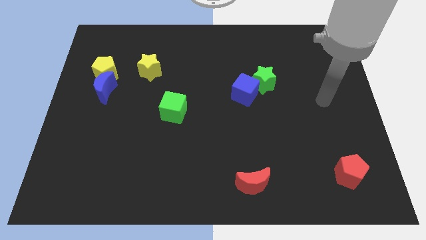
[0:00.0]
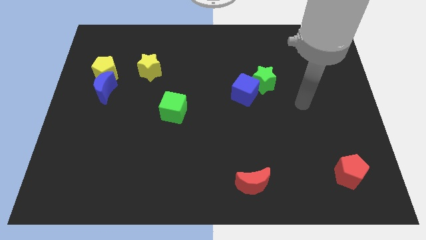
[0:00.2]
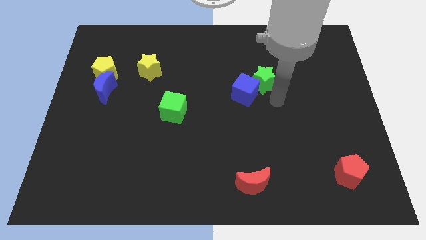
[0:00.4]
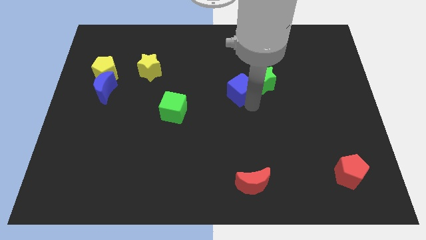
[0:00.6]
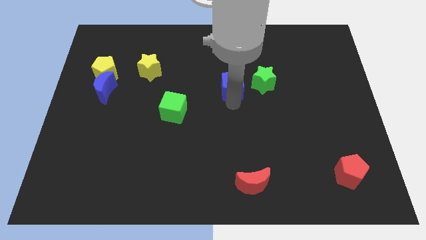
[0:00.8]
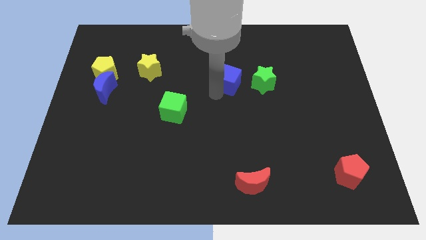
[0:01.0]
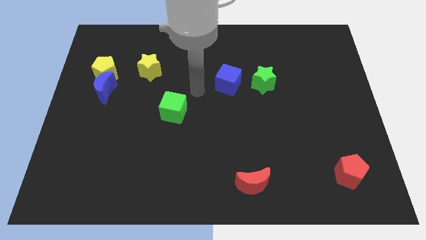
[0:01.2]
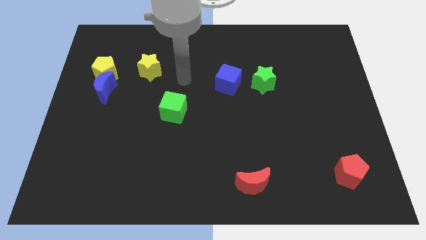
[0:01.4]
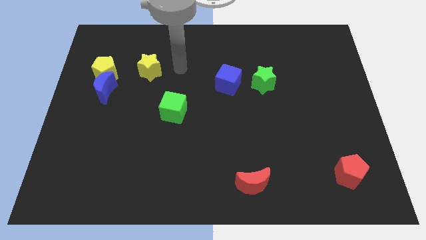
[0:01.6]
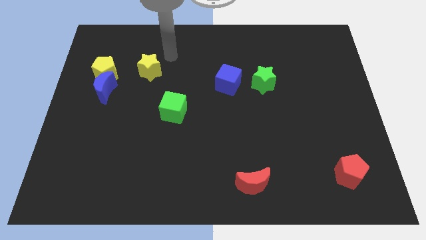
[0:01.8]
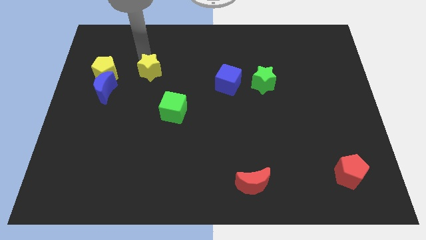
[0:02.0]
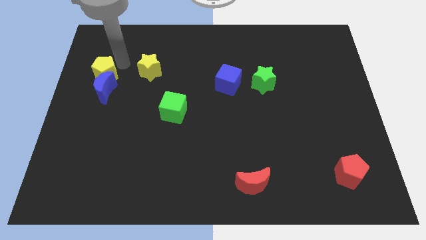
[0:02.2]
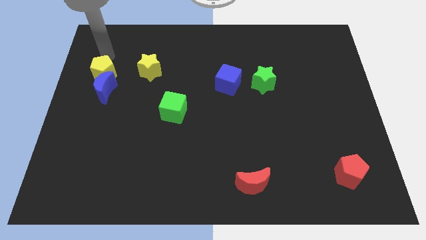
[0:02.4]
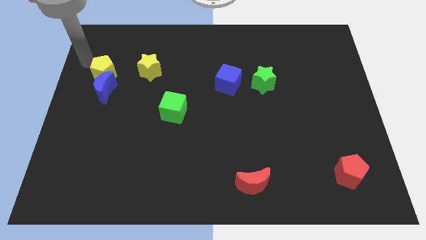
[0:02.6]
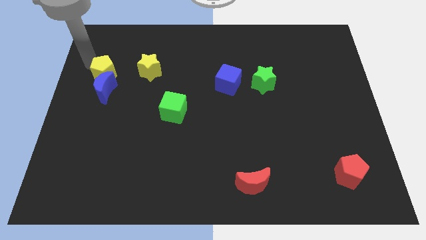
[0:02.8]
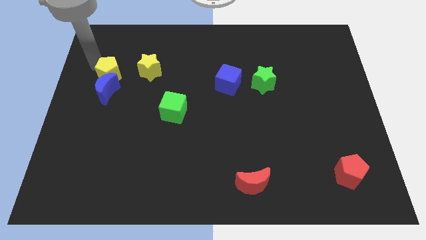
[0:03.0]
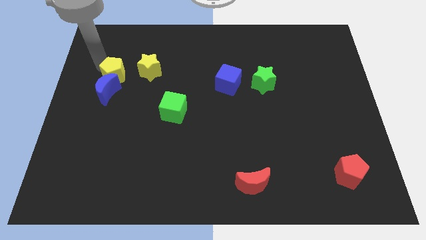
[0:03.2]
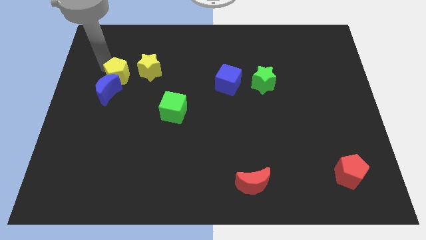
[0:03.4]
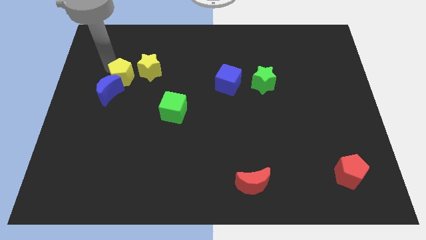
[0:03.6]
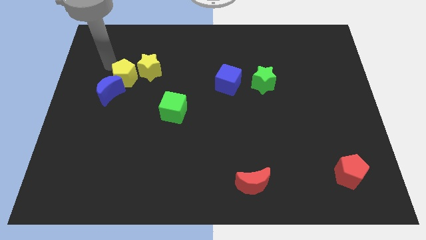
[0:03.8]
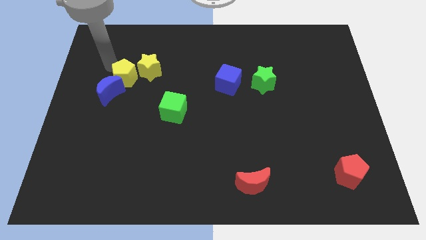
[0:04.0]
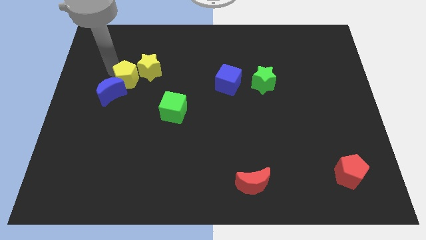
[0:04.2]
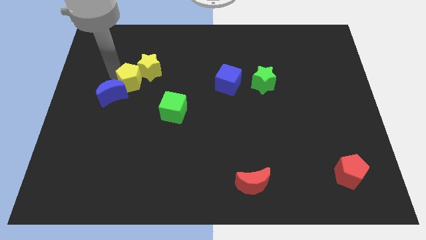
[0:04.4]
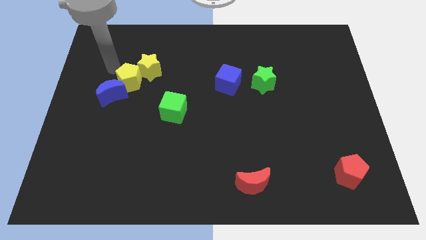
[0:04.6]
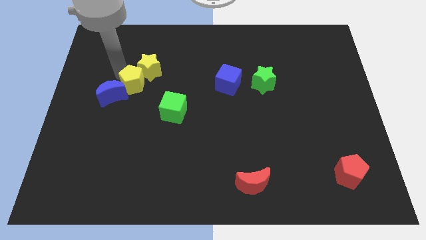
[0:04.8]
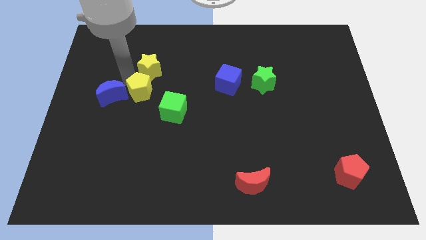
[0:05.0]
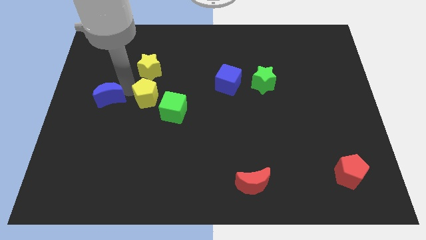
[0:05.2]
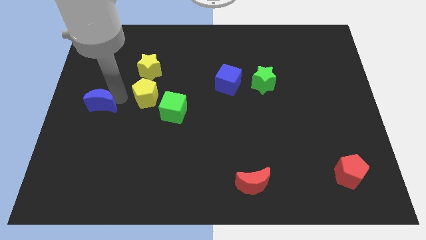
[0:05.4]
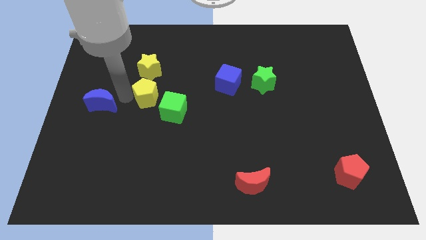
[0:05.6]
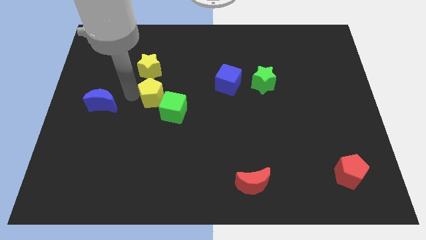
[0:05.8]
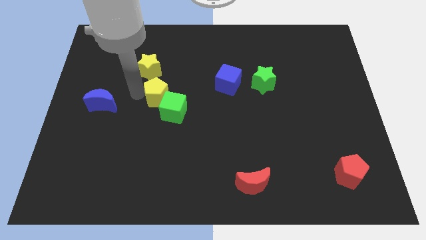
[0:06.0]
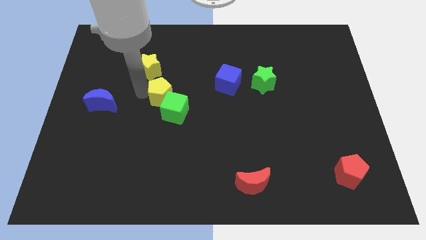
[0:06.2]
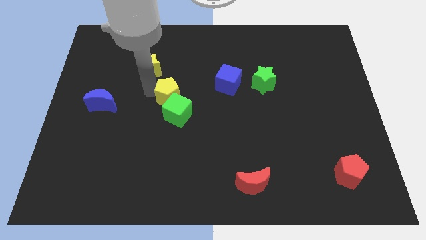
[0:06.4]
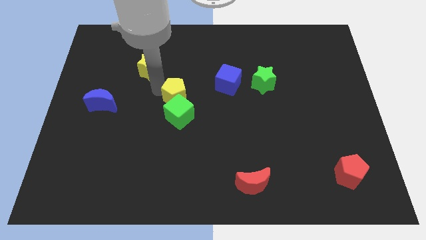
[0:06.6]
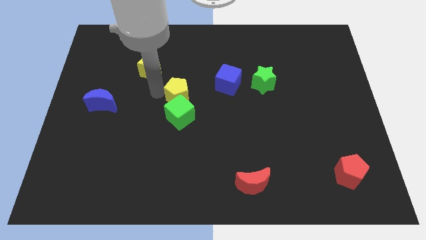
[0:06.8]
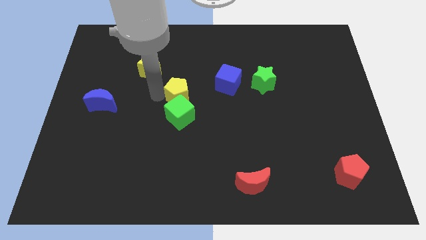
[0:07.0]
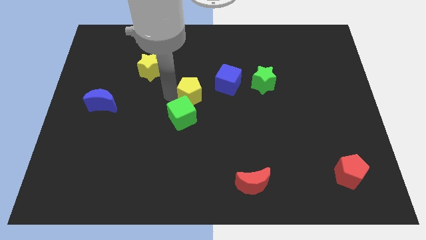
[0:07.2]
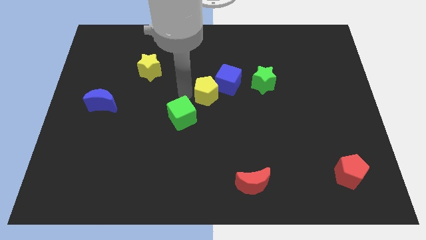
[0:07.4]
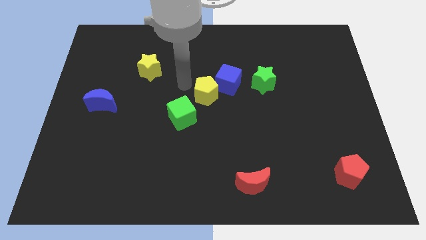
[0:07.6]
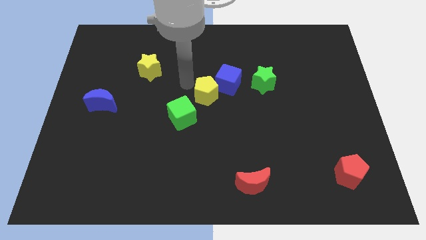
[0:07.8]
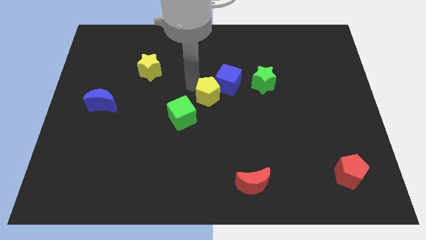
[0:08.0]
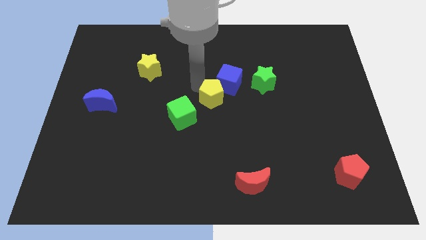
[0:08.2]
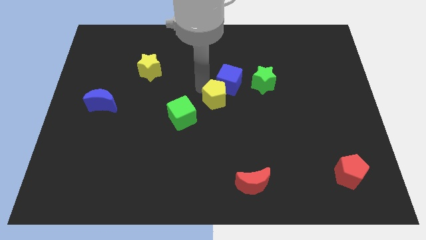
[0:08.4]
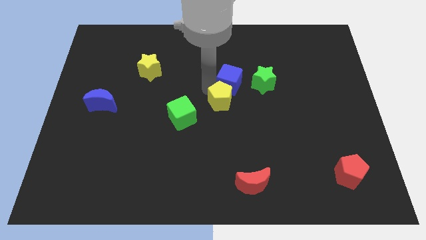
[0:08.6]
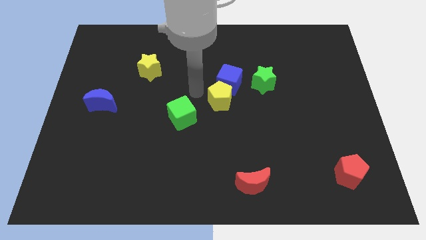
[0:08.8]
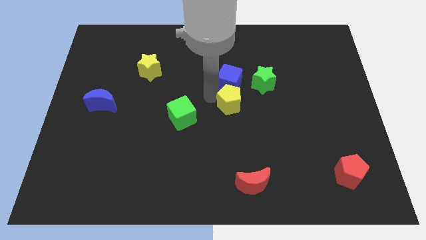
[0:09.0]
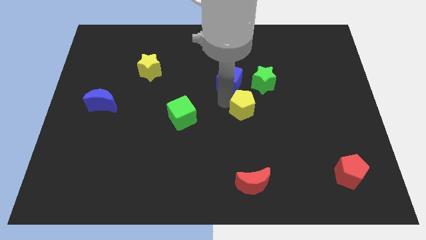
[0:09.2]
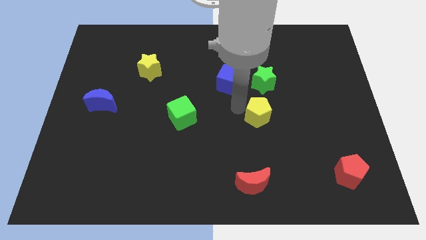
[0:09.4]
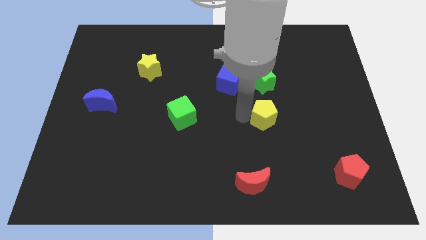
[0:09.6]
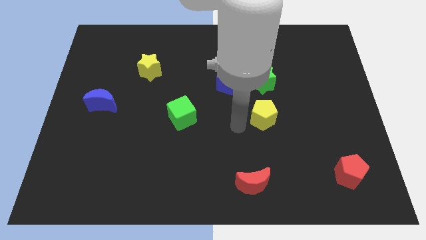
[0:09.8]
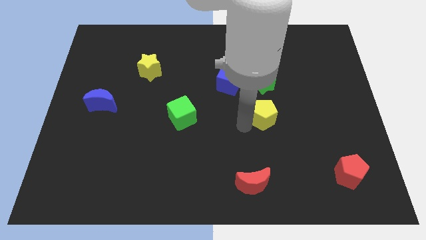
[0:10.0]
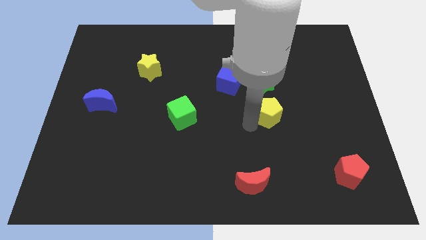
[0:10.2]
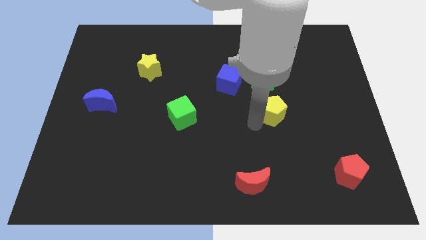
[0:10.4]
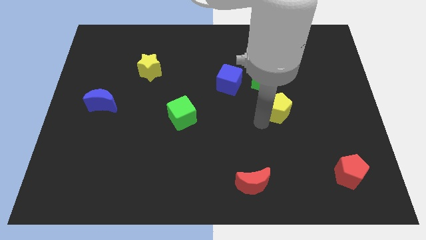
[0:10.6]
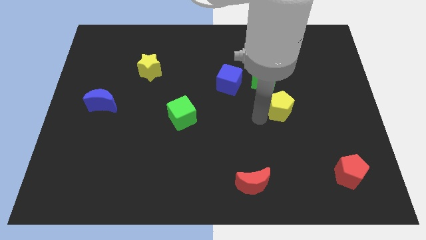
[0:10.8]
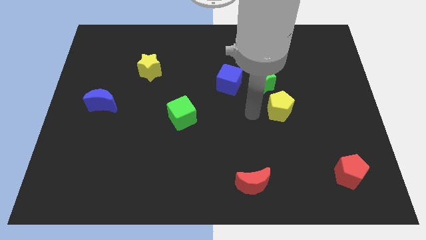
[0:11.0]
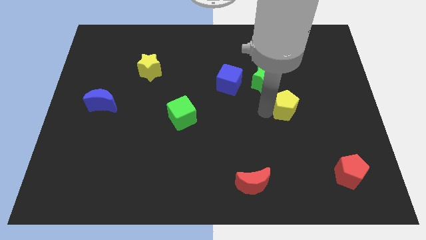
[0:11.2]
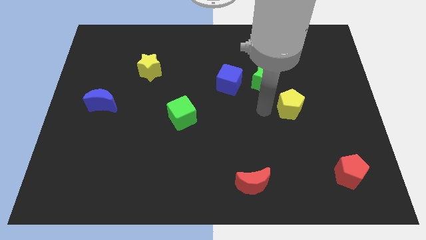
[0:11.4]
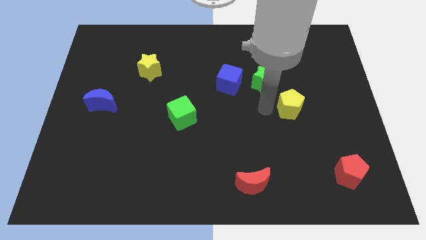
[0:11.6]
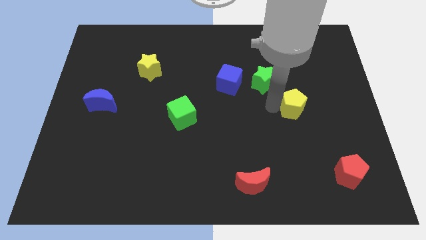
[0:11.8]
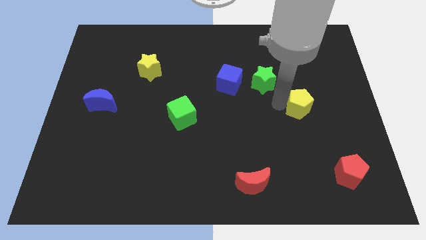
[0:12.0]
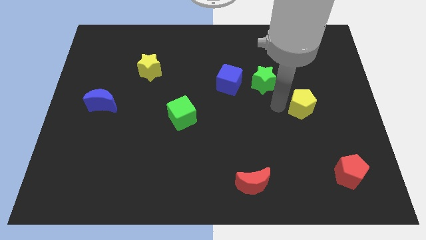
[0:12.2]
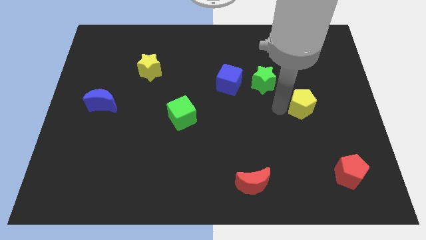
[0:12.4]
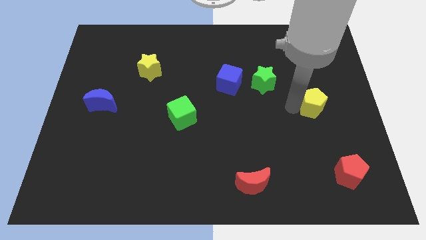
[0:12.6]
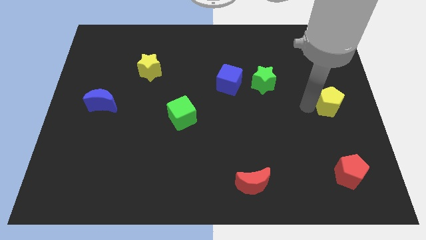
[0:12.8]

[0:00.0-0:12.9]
move the yellow pentagon to the right side
